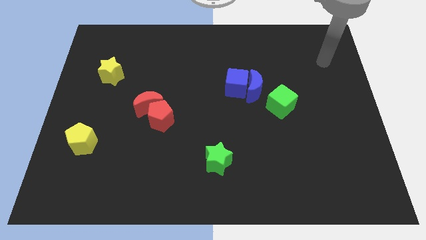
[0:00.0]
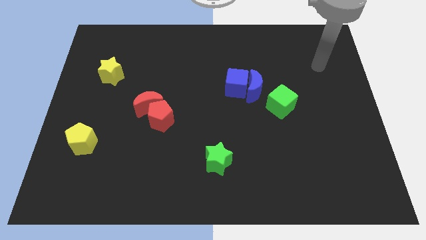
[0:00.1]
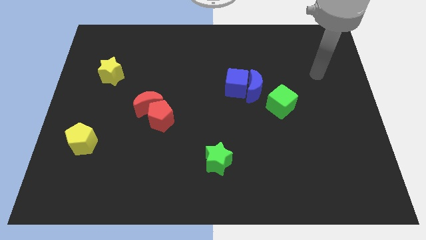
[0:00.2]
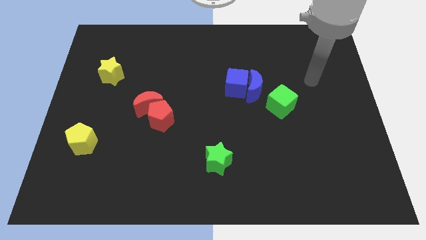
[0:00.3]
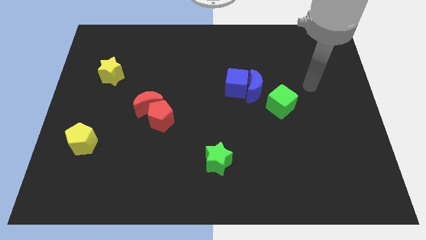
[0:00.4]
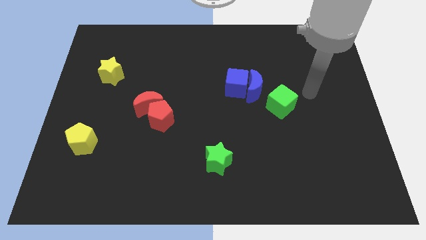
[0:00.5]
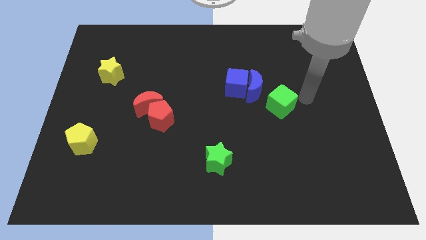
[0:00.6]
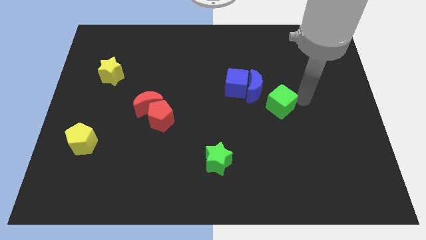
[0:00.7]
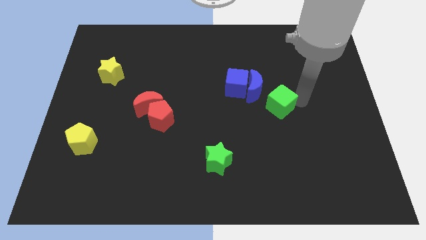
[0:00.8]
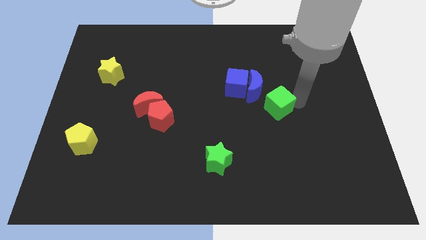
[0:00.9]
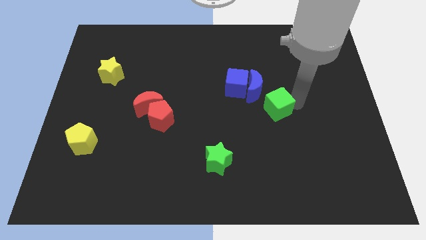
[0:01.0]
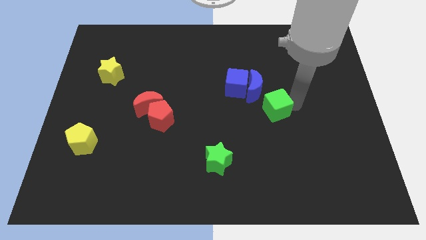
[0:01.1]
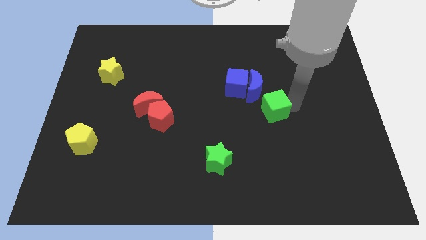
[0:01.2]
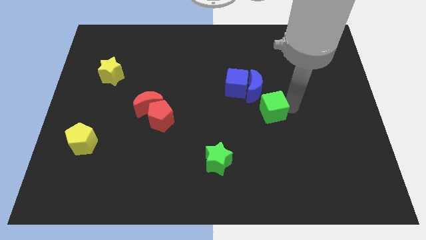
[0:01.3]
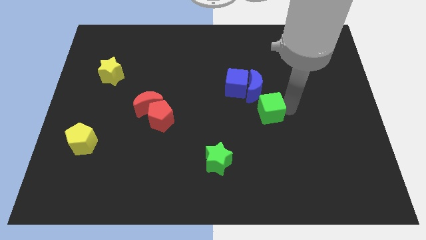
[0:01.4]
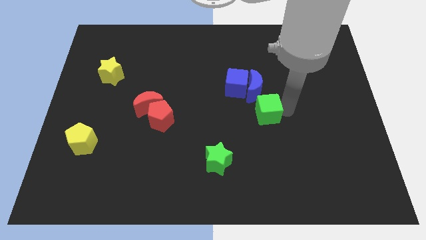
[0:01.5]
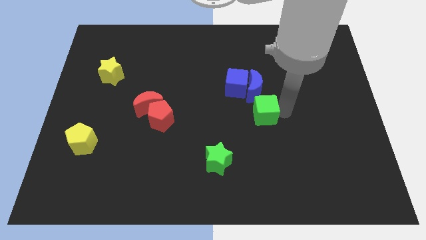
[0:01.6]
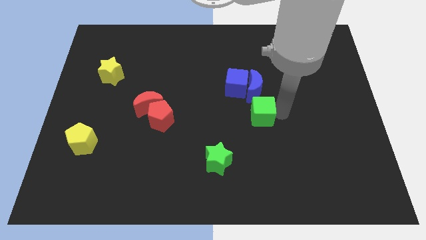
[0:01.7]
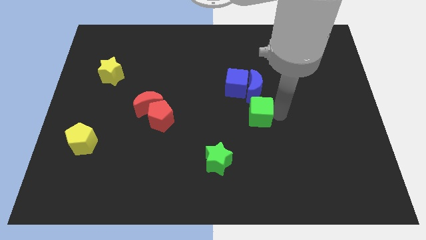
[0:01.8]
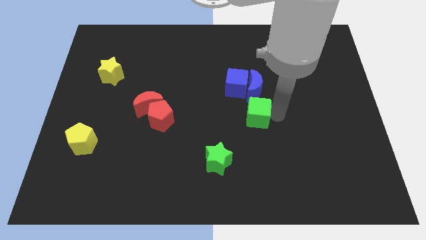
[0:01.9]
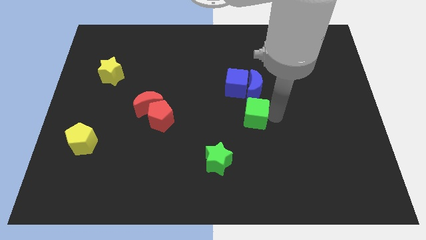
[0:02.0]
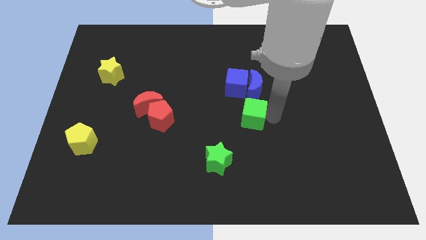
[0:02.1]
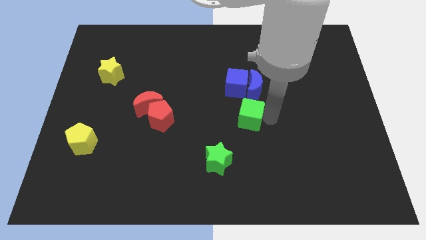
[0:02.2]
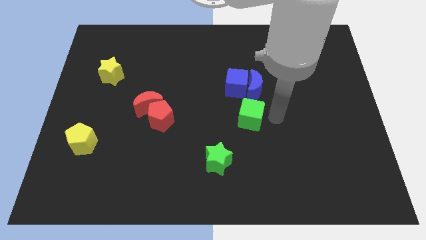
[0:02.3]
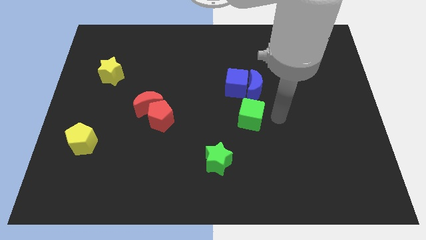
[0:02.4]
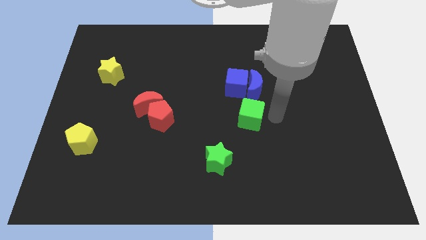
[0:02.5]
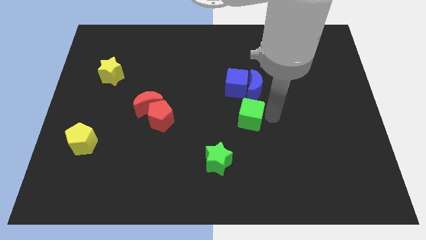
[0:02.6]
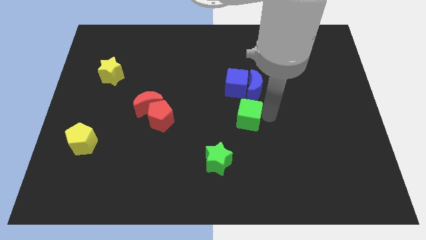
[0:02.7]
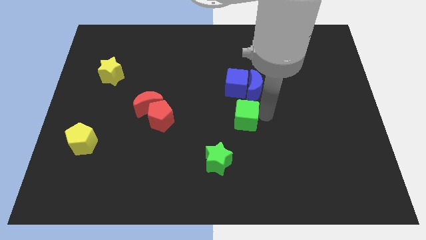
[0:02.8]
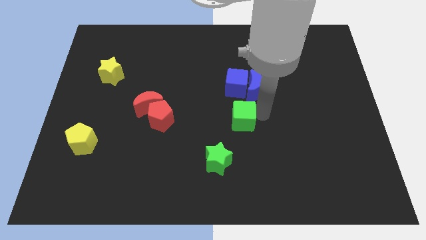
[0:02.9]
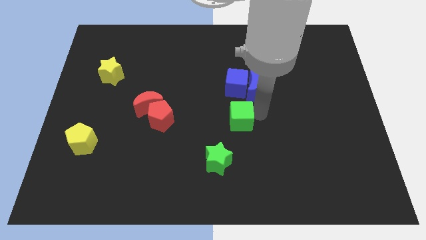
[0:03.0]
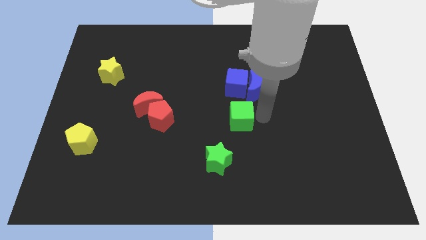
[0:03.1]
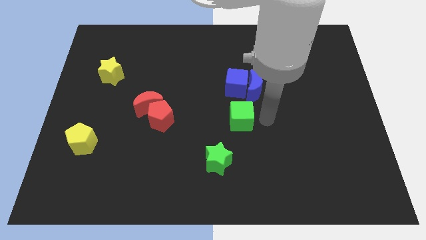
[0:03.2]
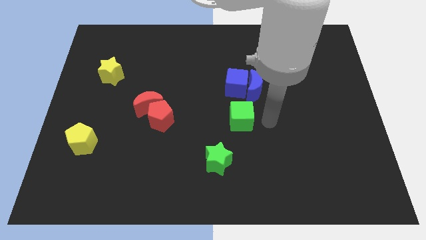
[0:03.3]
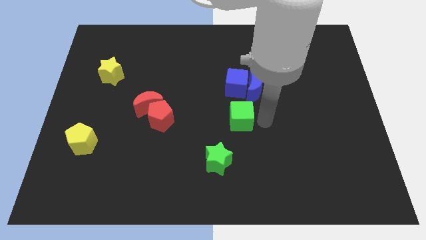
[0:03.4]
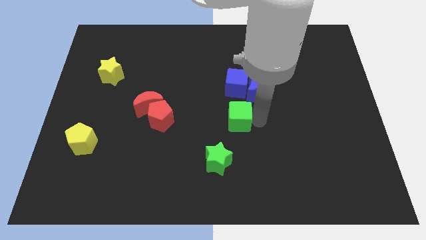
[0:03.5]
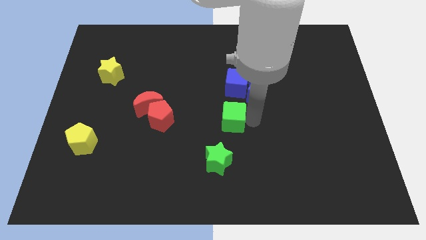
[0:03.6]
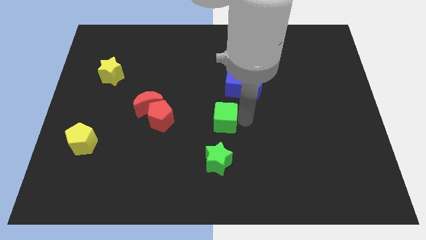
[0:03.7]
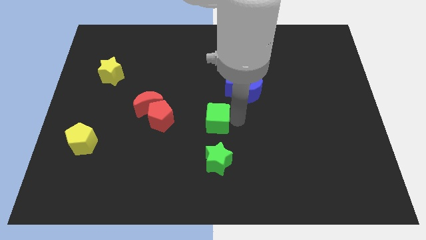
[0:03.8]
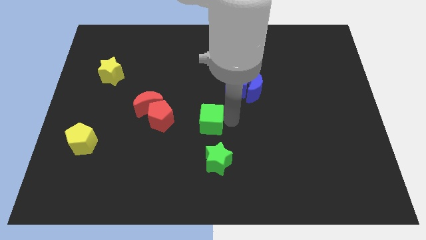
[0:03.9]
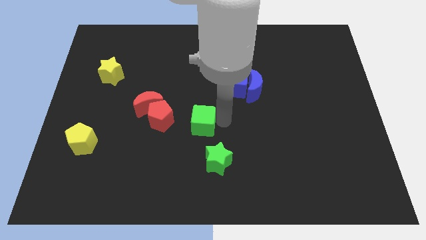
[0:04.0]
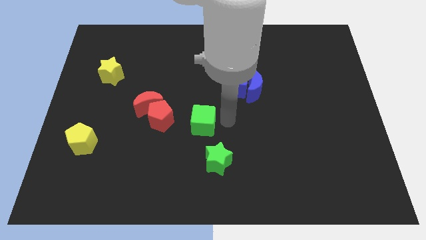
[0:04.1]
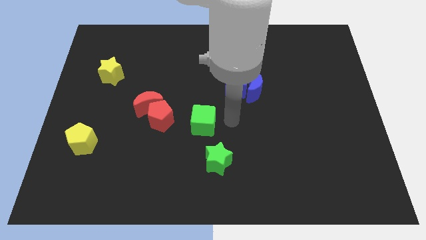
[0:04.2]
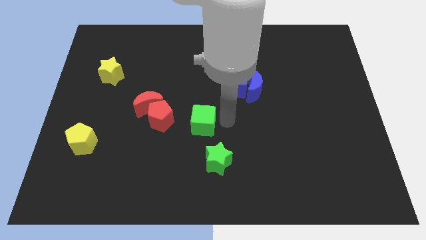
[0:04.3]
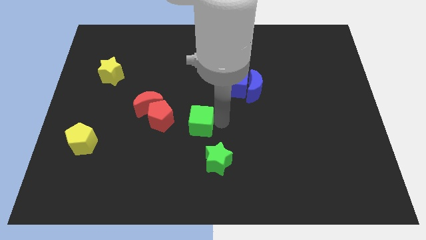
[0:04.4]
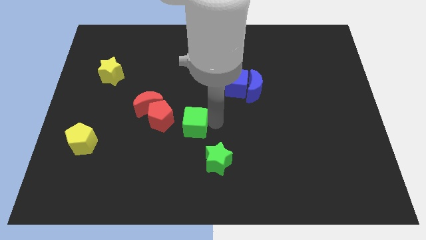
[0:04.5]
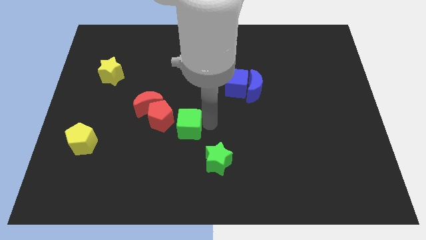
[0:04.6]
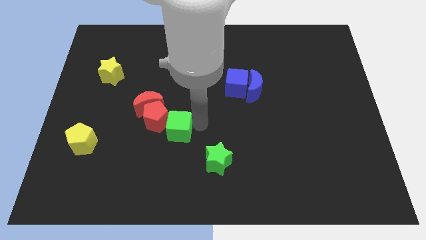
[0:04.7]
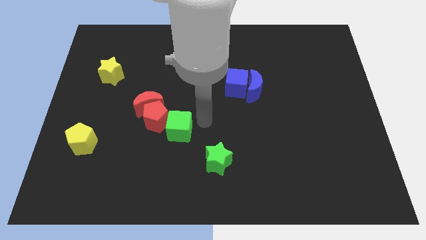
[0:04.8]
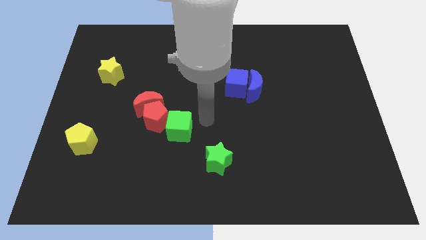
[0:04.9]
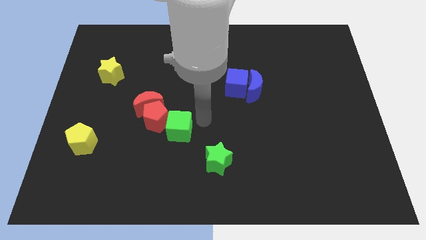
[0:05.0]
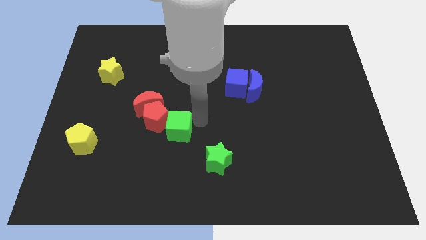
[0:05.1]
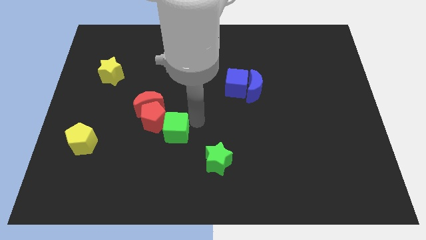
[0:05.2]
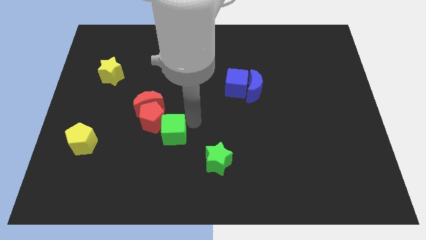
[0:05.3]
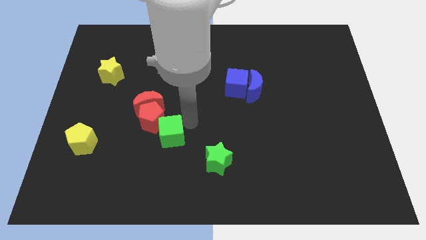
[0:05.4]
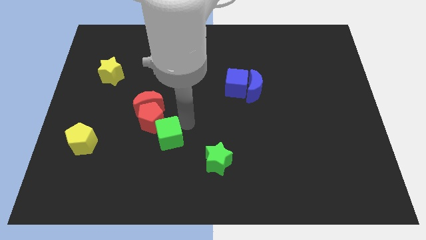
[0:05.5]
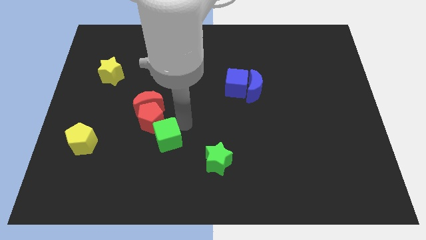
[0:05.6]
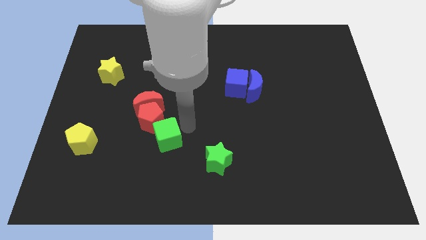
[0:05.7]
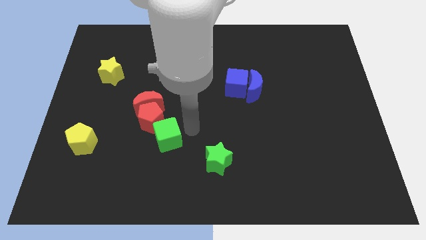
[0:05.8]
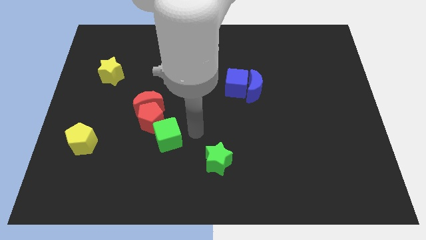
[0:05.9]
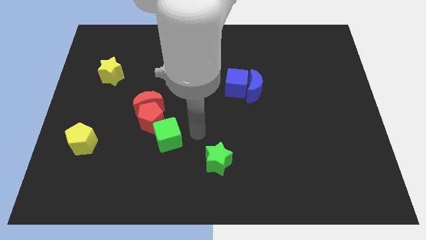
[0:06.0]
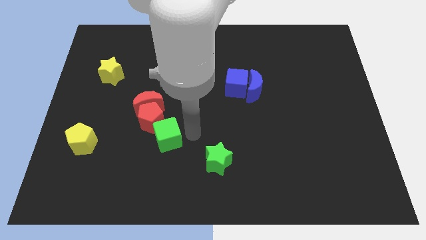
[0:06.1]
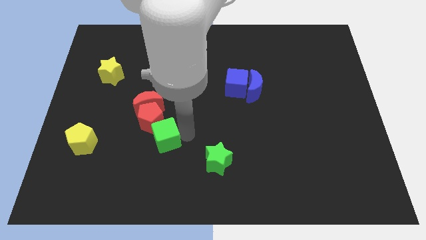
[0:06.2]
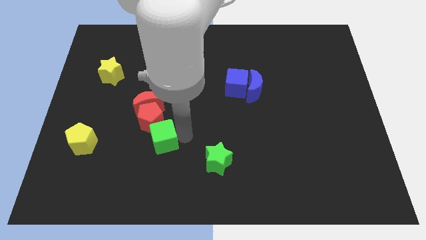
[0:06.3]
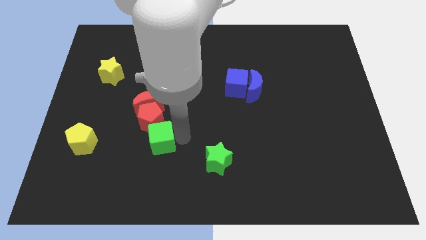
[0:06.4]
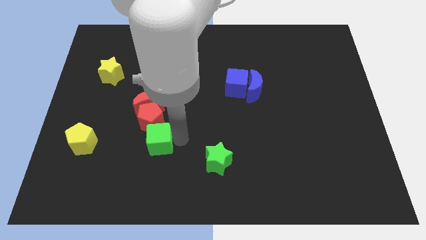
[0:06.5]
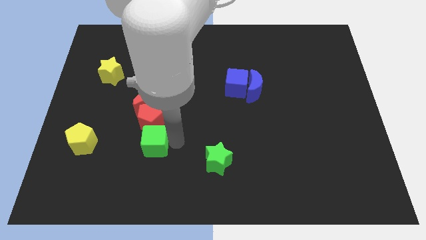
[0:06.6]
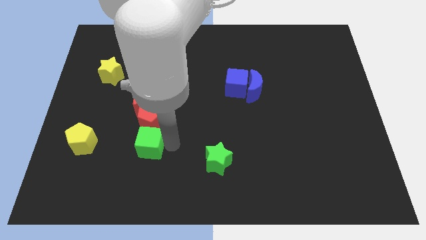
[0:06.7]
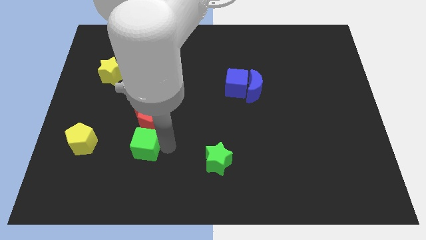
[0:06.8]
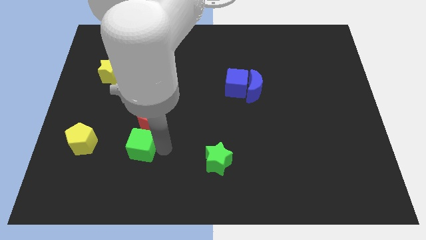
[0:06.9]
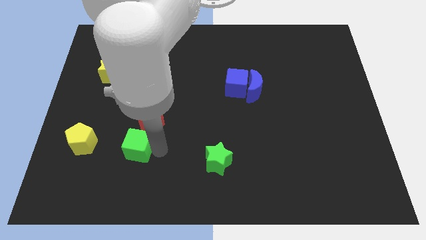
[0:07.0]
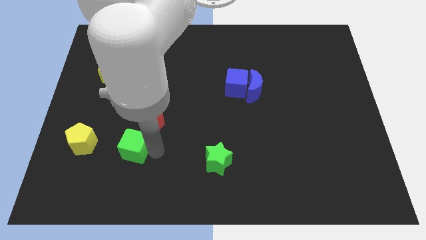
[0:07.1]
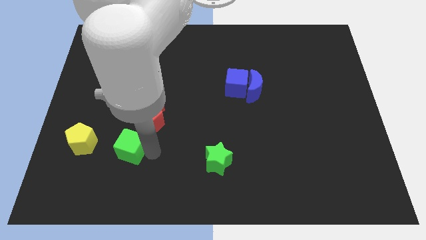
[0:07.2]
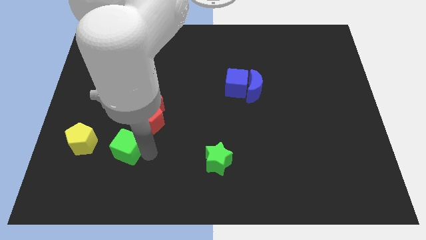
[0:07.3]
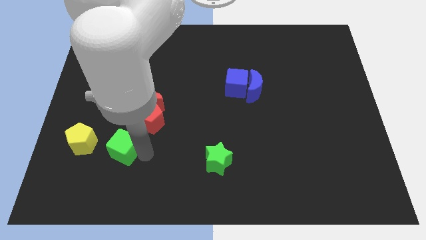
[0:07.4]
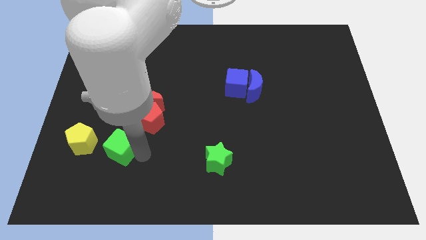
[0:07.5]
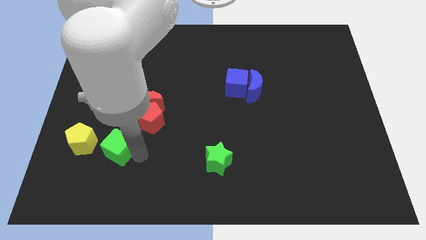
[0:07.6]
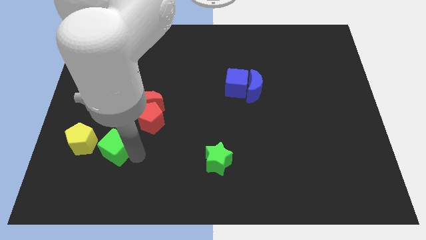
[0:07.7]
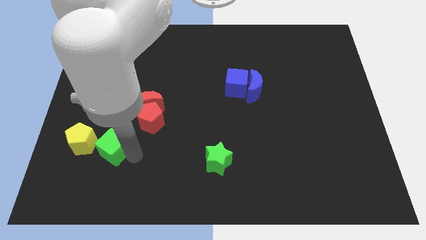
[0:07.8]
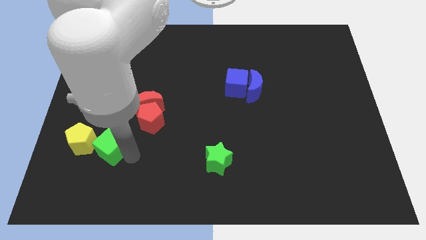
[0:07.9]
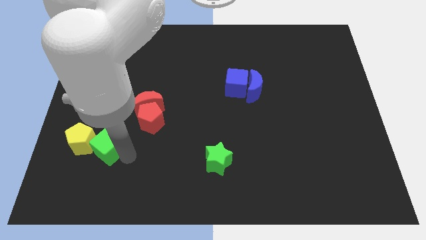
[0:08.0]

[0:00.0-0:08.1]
push the green cube close to the yellow pentagon
